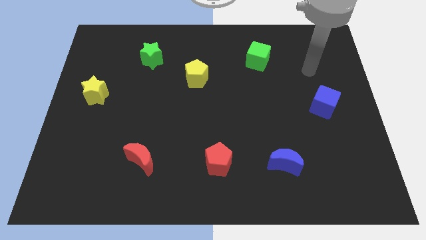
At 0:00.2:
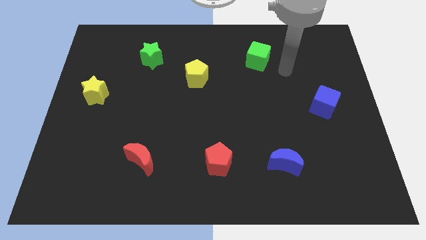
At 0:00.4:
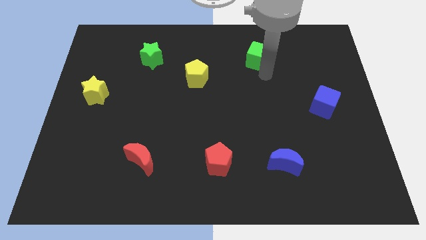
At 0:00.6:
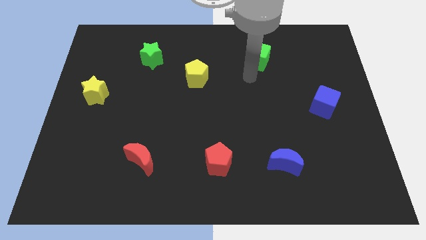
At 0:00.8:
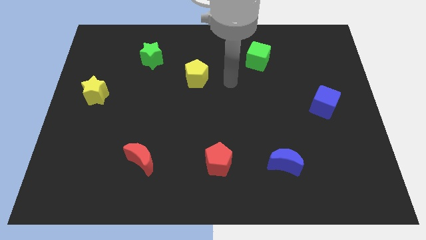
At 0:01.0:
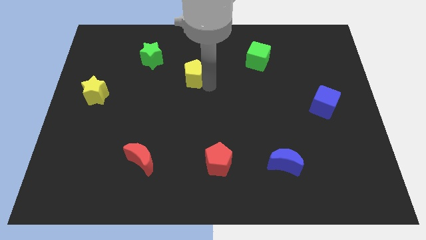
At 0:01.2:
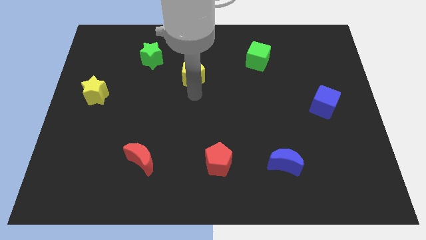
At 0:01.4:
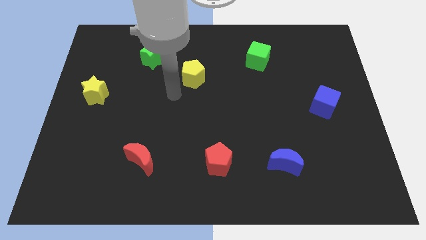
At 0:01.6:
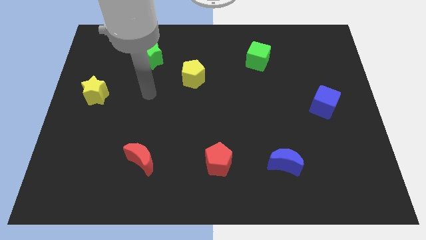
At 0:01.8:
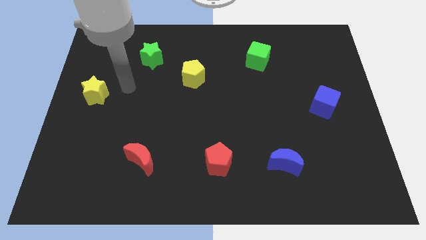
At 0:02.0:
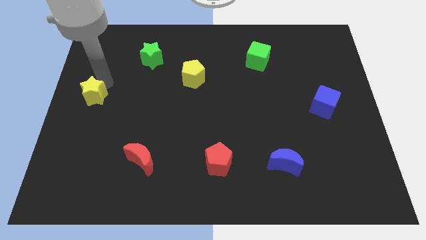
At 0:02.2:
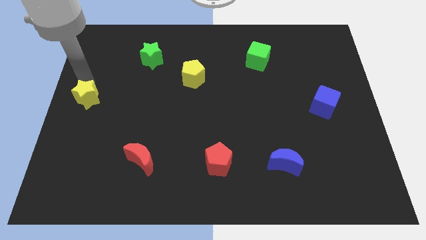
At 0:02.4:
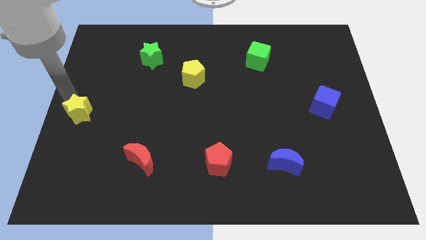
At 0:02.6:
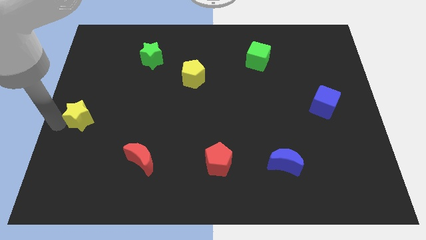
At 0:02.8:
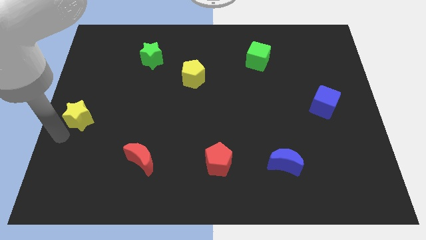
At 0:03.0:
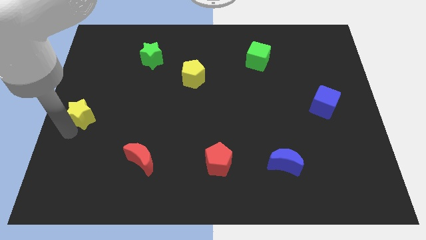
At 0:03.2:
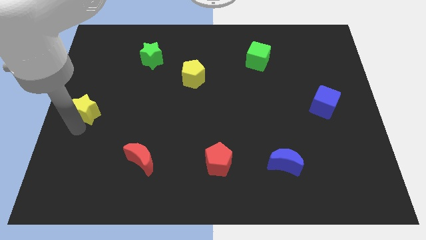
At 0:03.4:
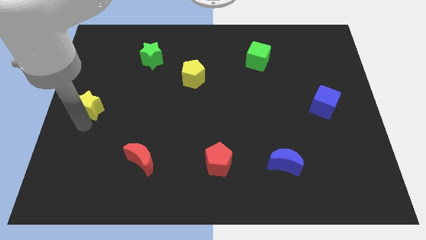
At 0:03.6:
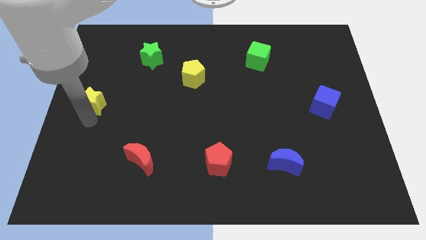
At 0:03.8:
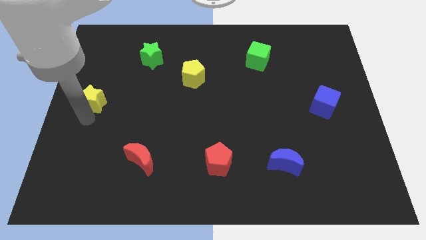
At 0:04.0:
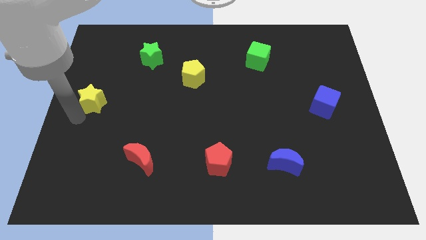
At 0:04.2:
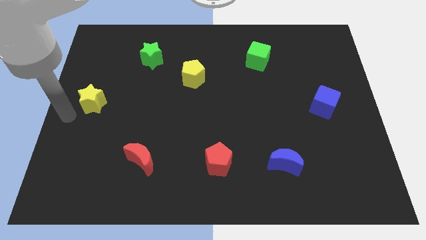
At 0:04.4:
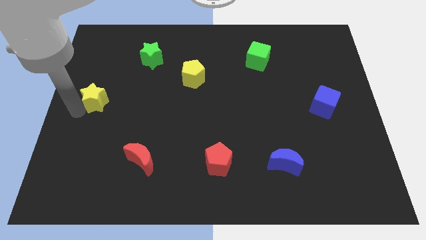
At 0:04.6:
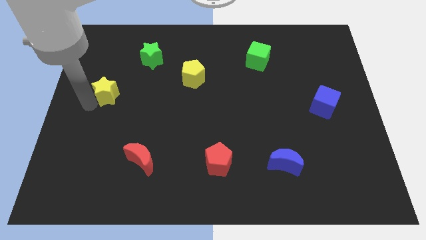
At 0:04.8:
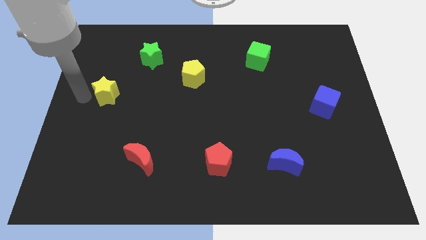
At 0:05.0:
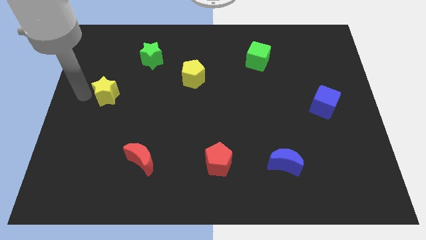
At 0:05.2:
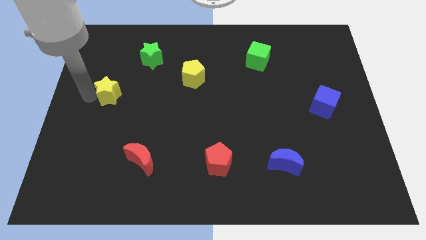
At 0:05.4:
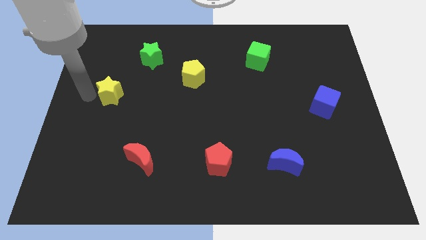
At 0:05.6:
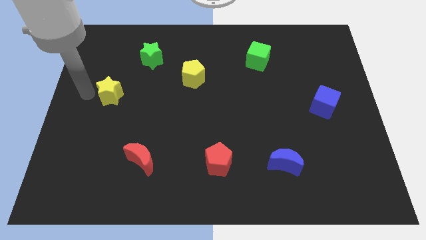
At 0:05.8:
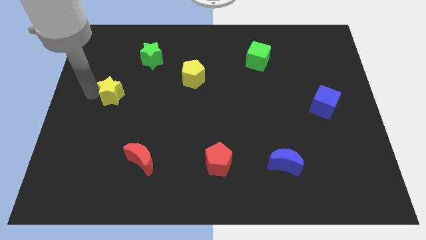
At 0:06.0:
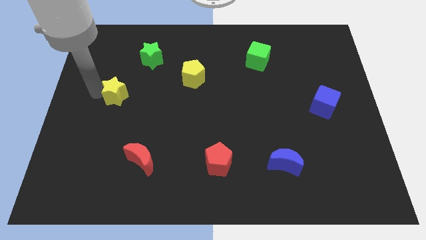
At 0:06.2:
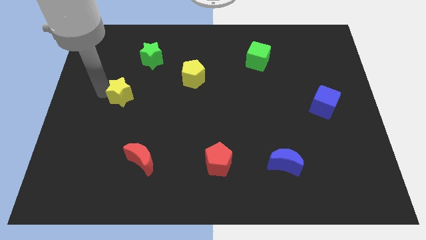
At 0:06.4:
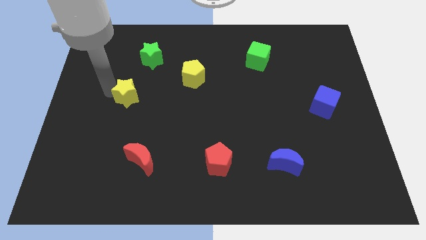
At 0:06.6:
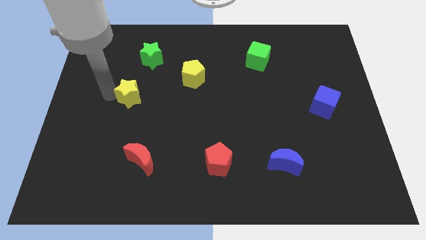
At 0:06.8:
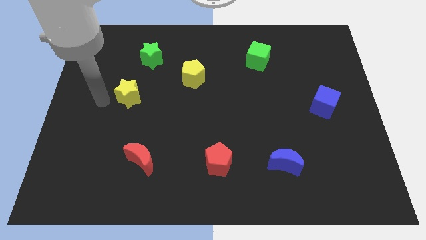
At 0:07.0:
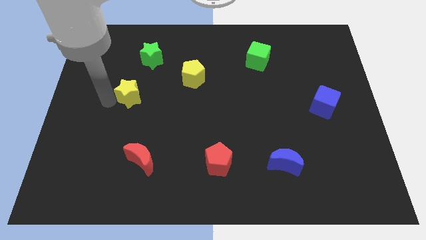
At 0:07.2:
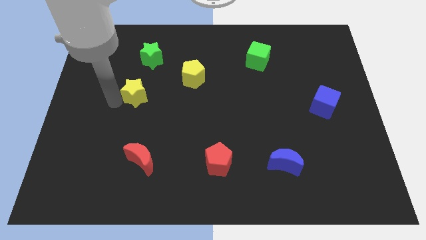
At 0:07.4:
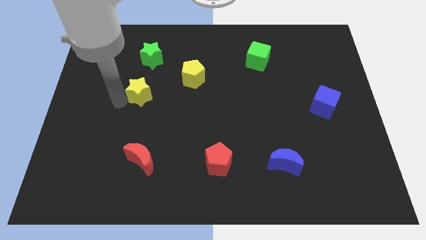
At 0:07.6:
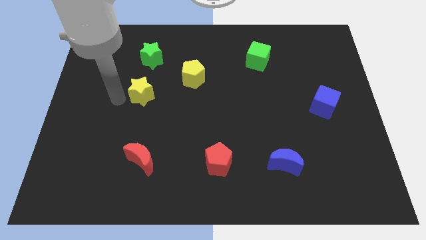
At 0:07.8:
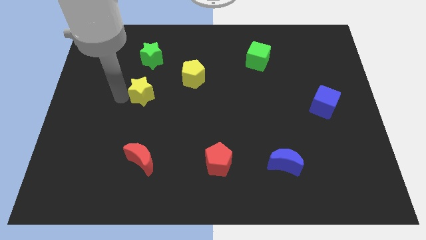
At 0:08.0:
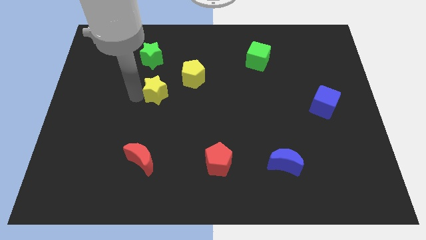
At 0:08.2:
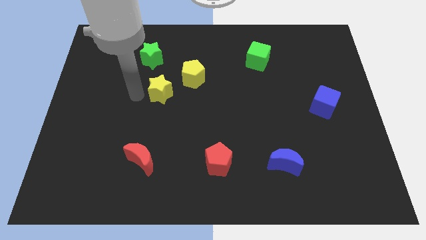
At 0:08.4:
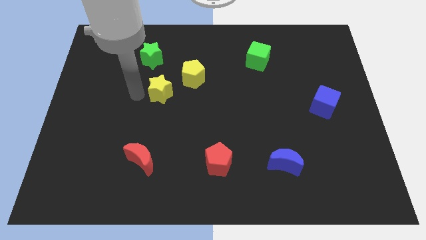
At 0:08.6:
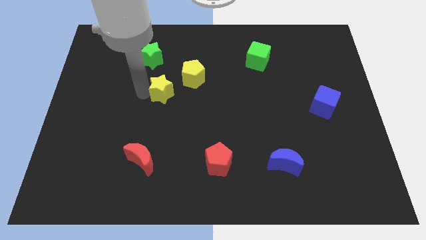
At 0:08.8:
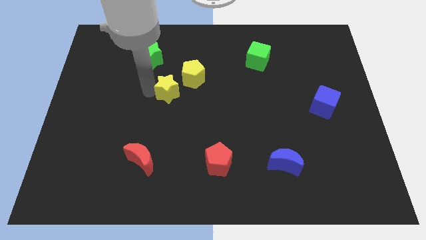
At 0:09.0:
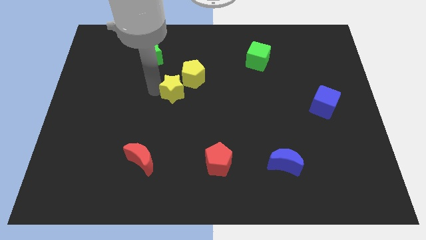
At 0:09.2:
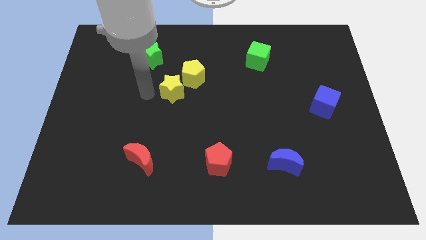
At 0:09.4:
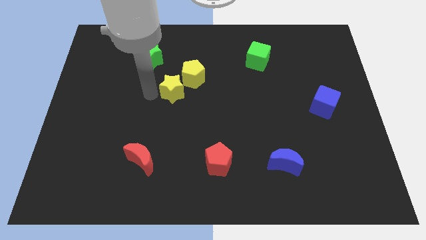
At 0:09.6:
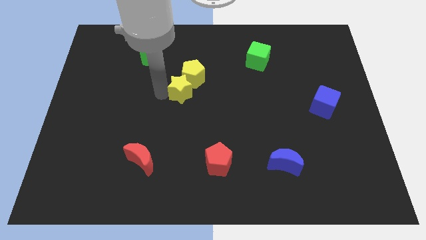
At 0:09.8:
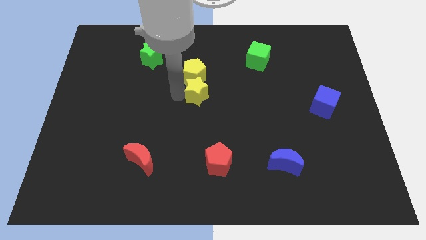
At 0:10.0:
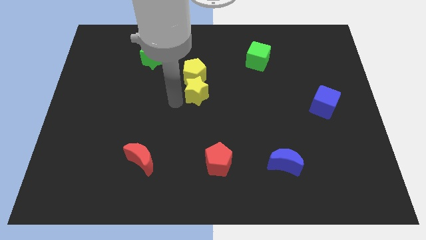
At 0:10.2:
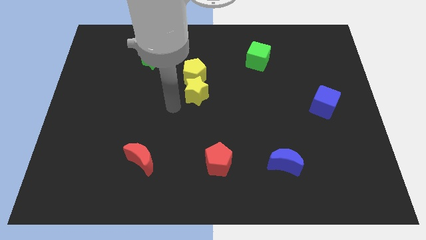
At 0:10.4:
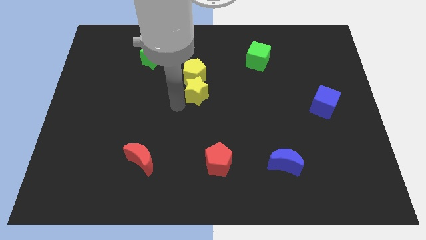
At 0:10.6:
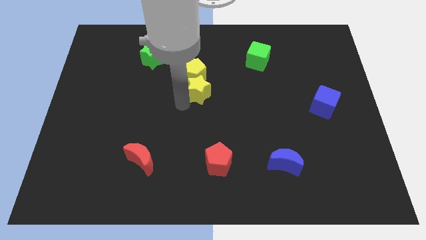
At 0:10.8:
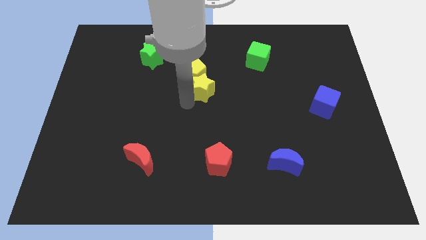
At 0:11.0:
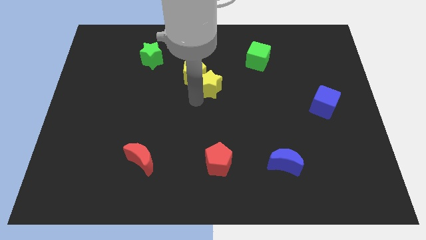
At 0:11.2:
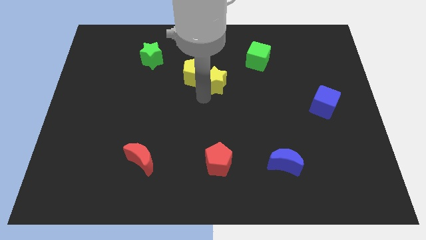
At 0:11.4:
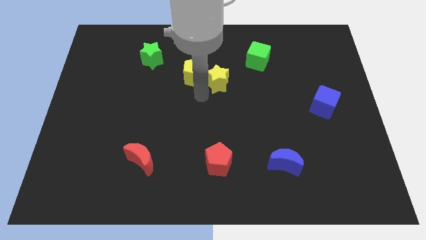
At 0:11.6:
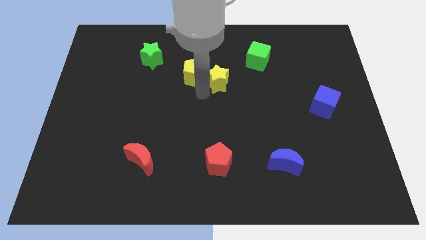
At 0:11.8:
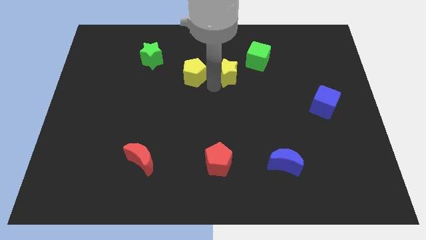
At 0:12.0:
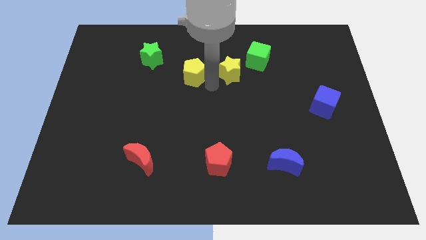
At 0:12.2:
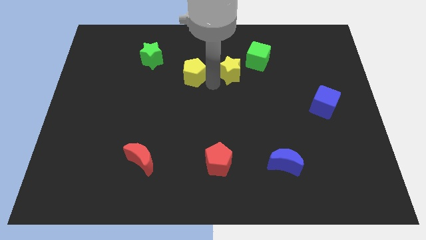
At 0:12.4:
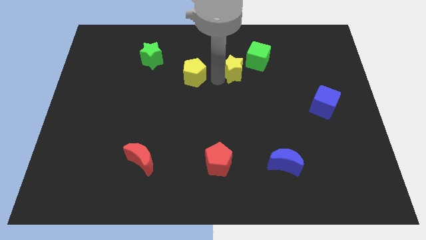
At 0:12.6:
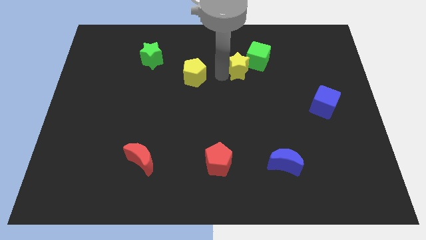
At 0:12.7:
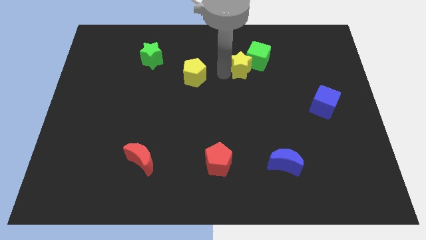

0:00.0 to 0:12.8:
push the yellow star to the green cube

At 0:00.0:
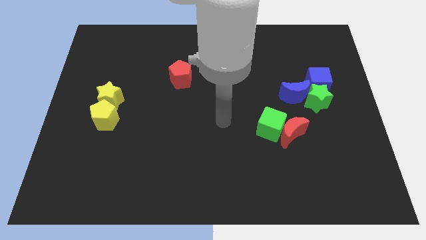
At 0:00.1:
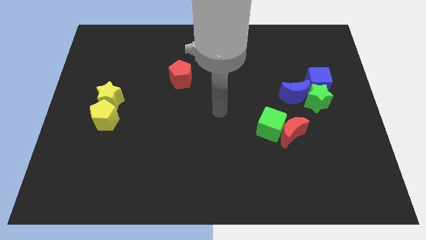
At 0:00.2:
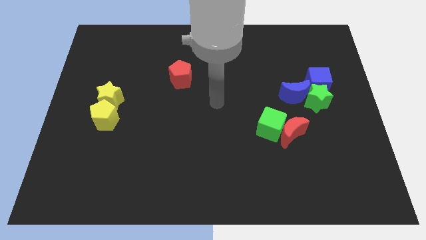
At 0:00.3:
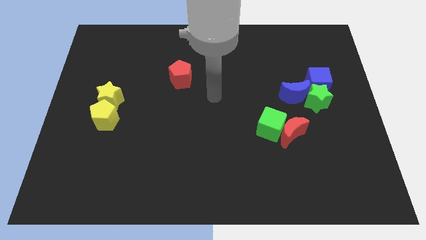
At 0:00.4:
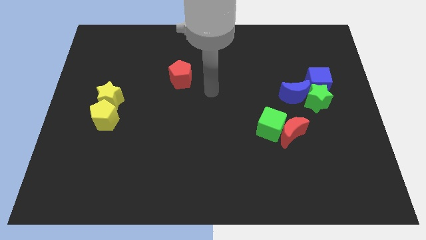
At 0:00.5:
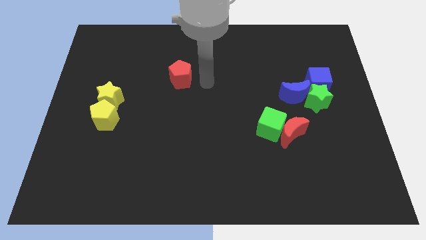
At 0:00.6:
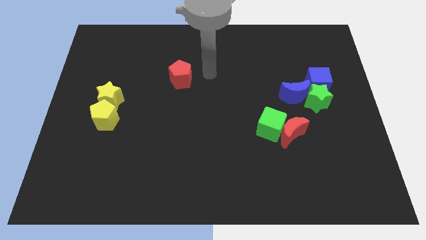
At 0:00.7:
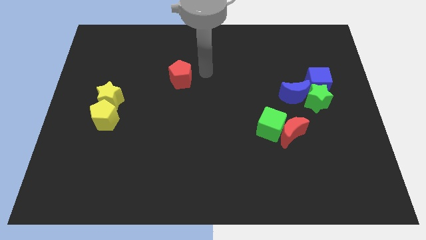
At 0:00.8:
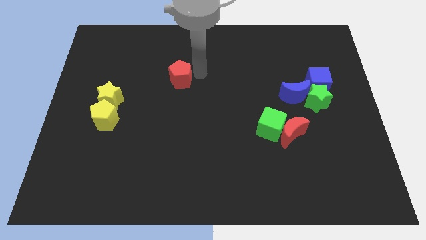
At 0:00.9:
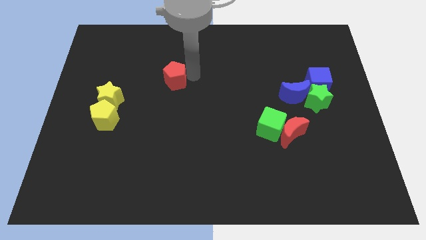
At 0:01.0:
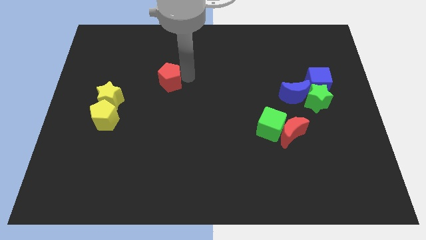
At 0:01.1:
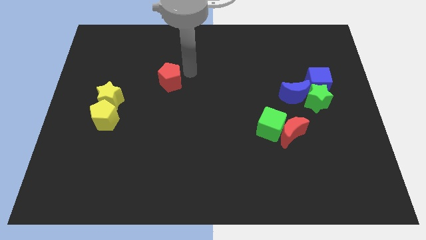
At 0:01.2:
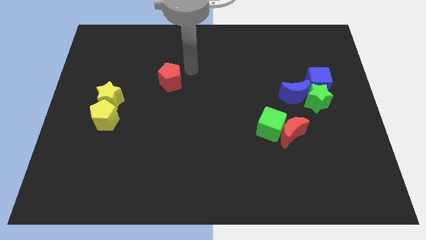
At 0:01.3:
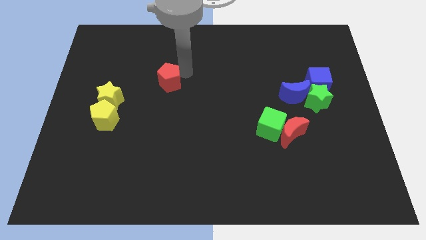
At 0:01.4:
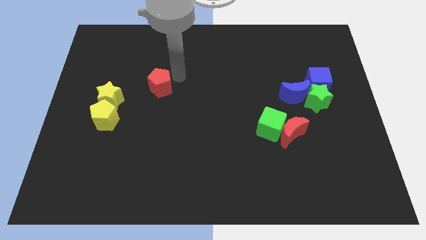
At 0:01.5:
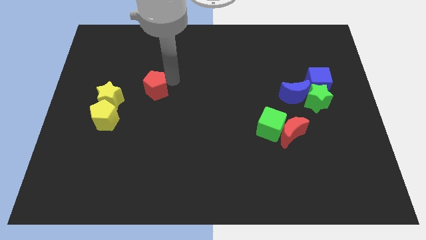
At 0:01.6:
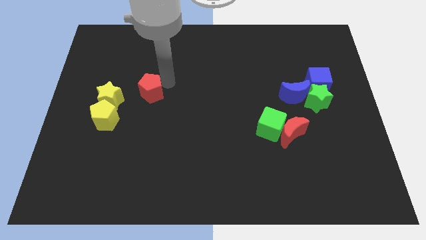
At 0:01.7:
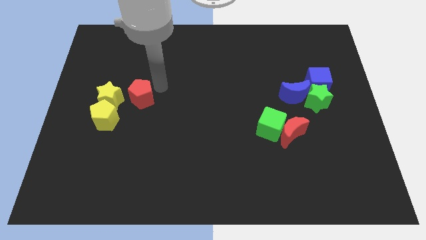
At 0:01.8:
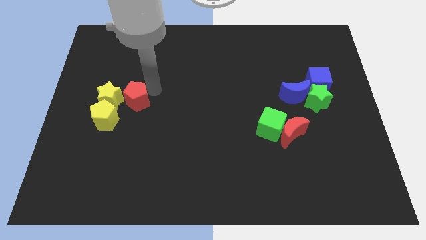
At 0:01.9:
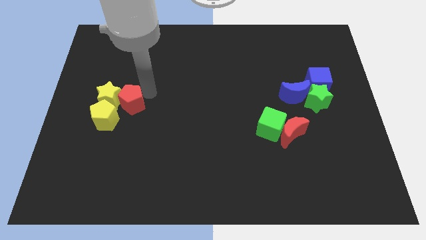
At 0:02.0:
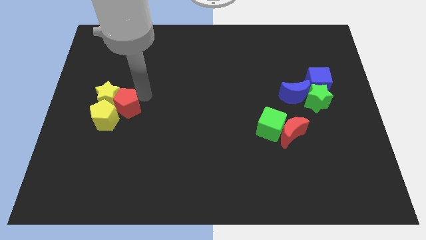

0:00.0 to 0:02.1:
put the red pentagon to the yellow pentagon
